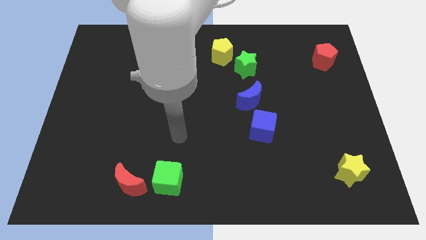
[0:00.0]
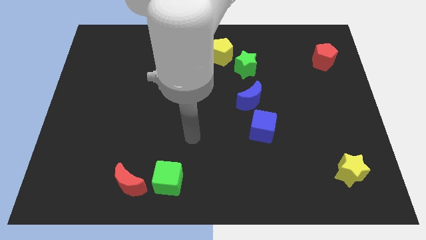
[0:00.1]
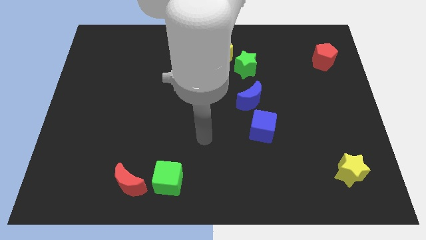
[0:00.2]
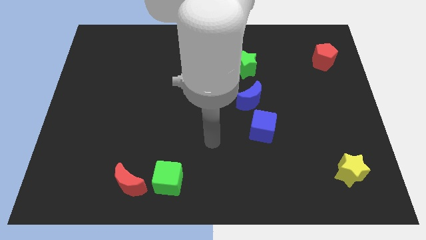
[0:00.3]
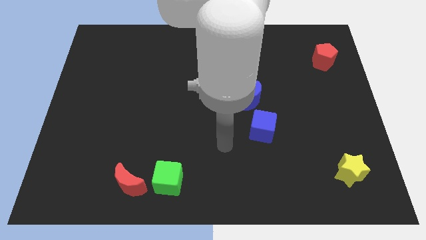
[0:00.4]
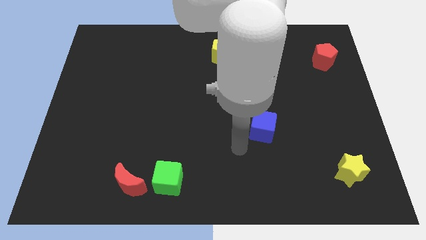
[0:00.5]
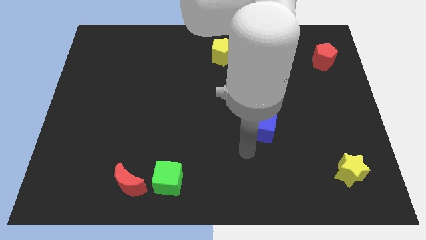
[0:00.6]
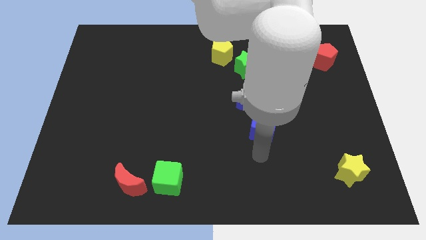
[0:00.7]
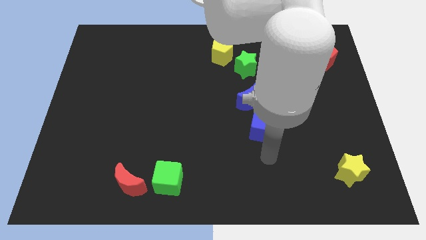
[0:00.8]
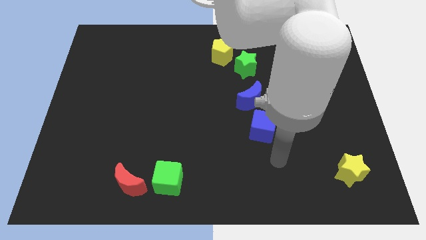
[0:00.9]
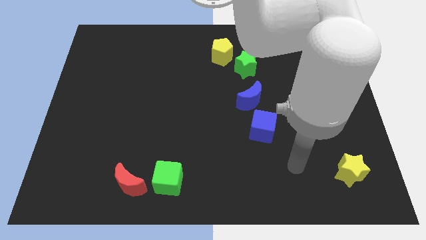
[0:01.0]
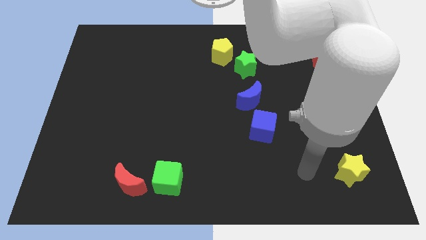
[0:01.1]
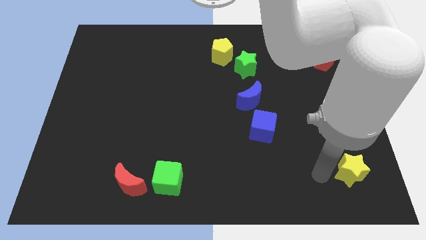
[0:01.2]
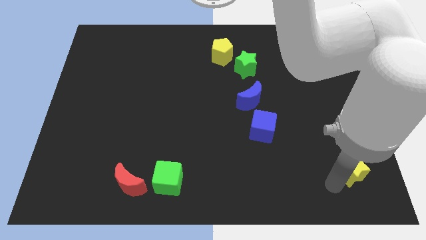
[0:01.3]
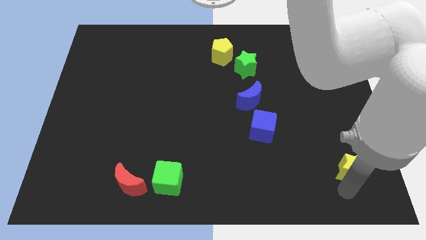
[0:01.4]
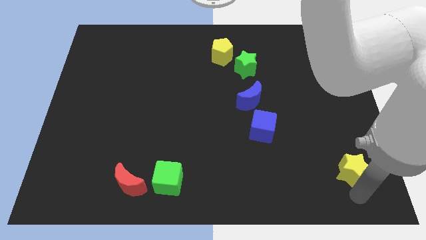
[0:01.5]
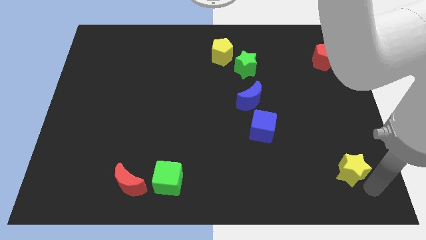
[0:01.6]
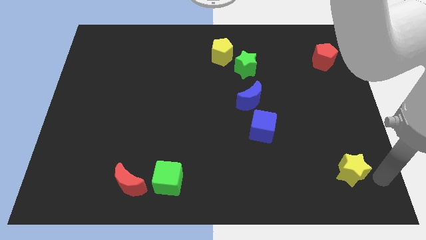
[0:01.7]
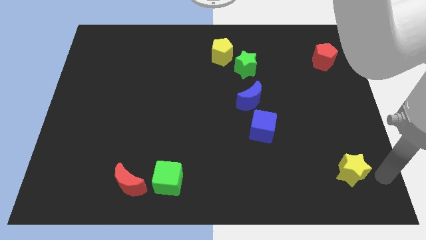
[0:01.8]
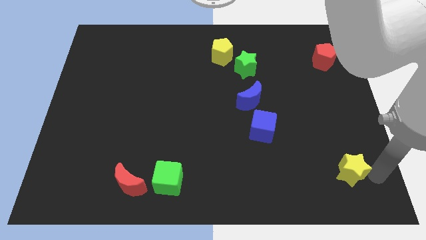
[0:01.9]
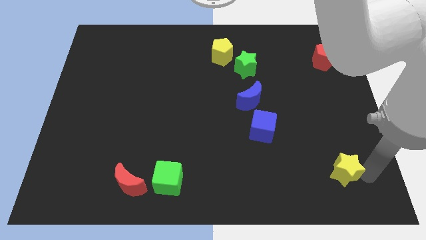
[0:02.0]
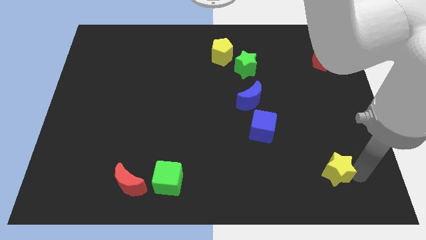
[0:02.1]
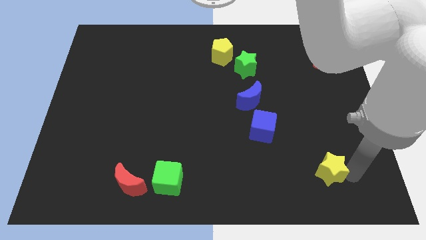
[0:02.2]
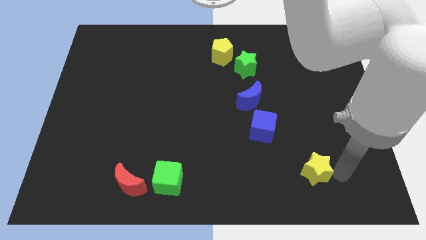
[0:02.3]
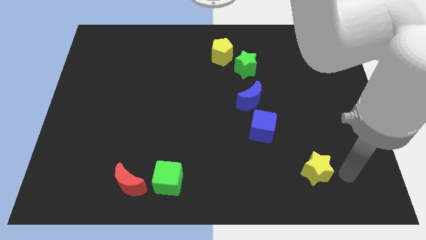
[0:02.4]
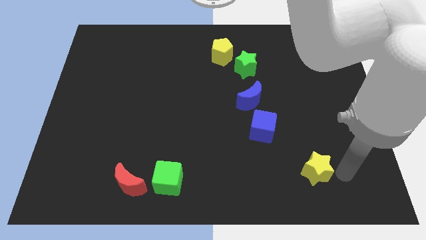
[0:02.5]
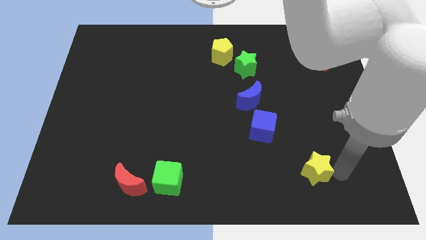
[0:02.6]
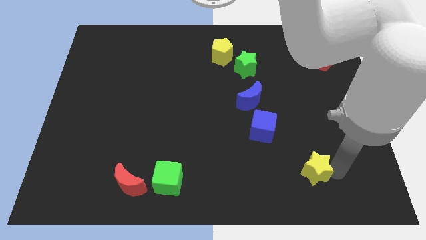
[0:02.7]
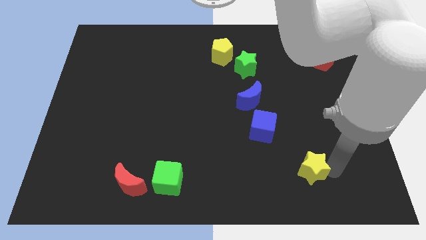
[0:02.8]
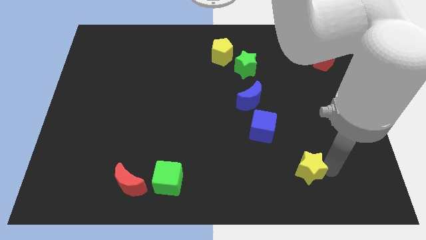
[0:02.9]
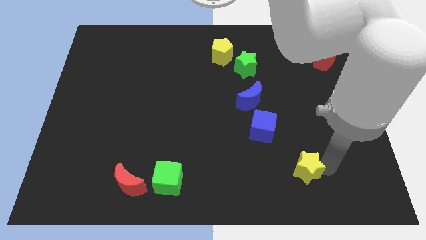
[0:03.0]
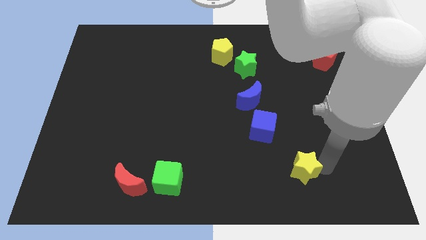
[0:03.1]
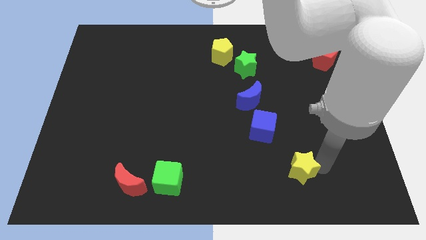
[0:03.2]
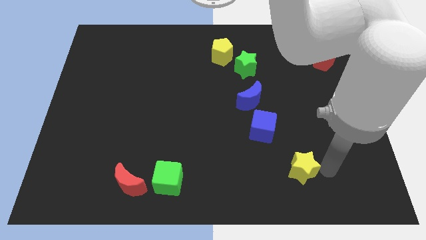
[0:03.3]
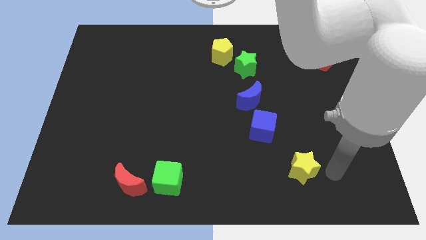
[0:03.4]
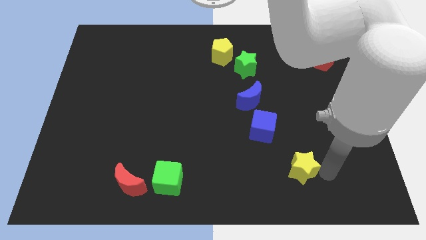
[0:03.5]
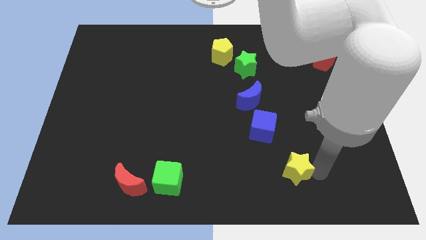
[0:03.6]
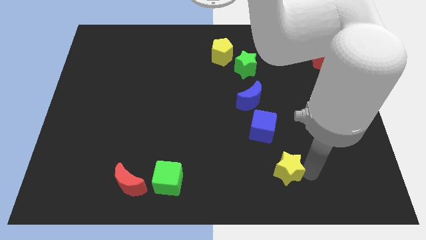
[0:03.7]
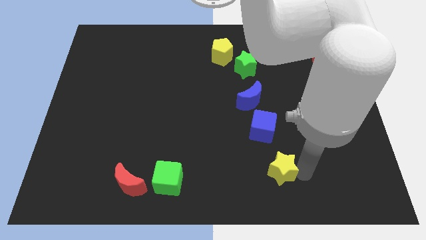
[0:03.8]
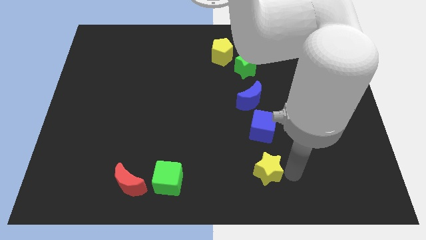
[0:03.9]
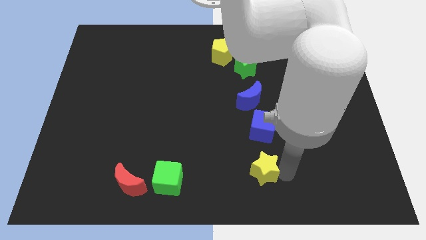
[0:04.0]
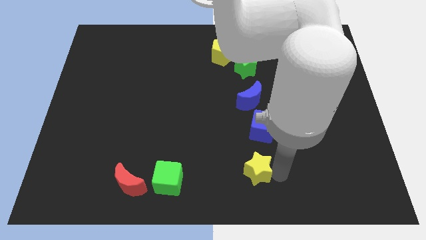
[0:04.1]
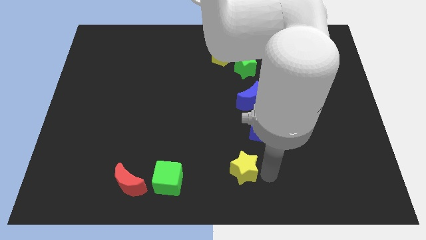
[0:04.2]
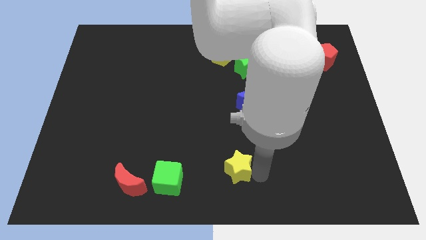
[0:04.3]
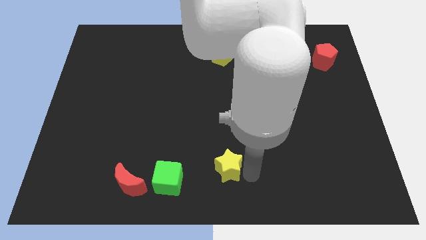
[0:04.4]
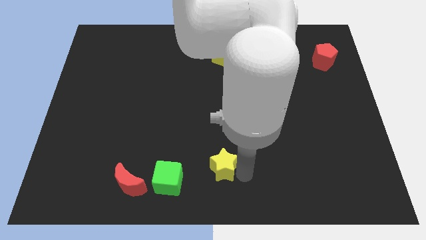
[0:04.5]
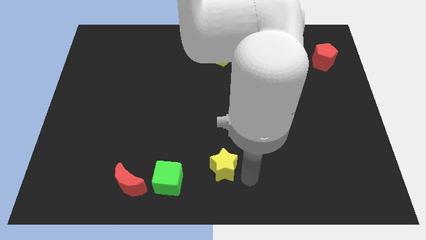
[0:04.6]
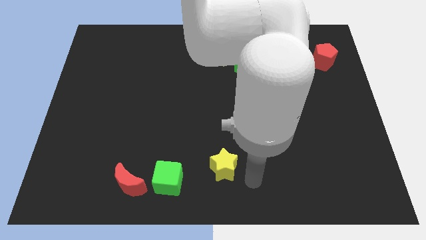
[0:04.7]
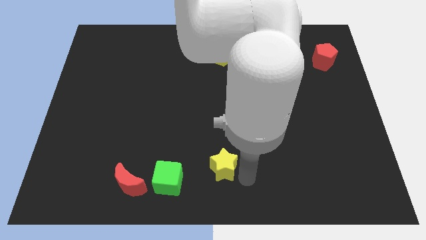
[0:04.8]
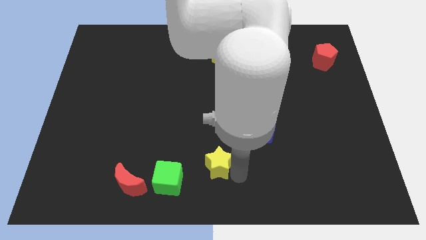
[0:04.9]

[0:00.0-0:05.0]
slide the yellow star to the top right of the green cube

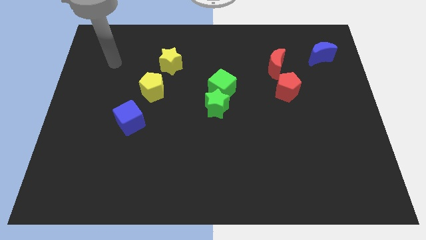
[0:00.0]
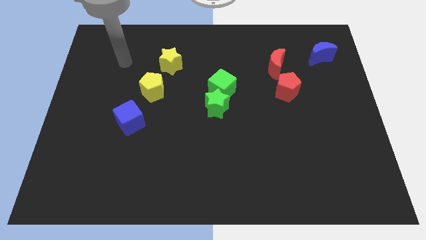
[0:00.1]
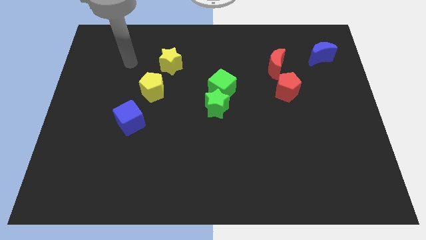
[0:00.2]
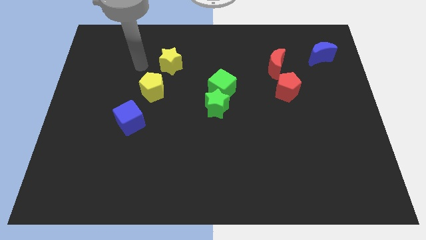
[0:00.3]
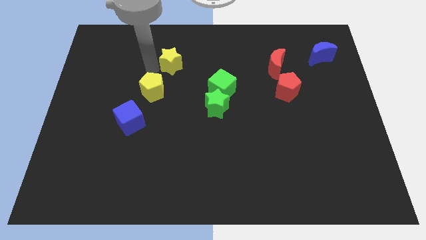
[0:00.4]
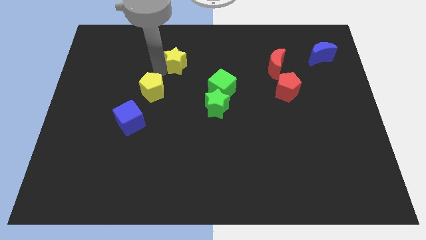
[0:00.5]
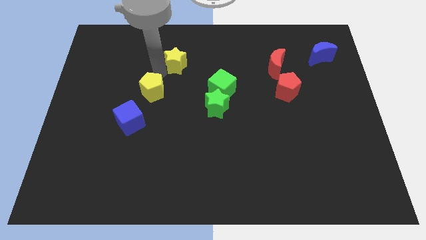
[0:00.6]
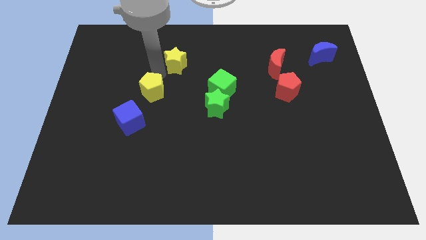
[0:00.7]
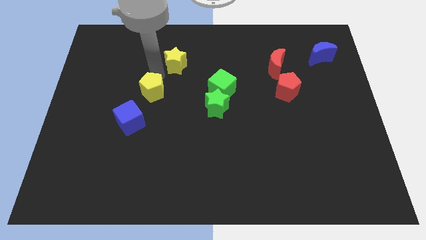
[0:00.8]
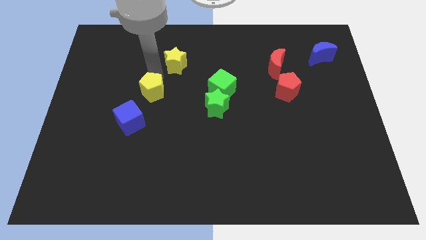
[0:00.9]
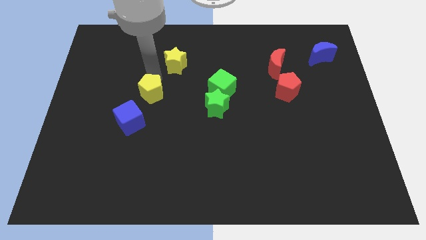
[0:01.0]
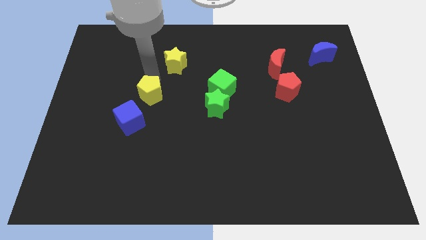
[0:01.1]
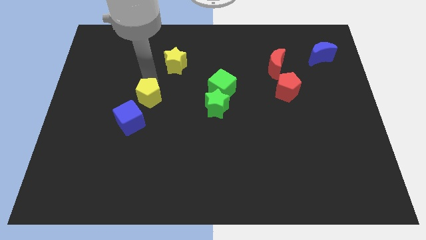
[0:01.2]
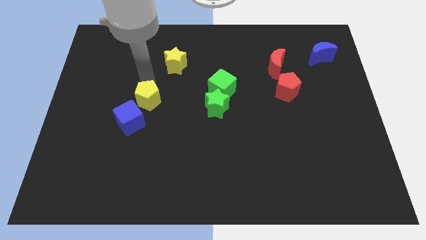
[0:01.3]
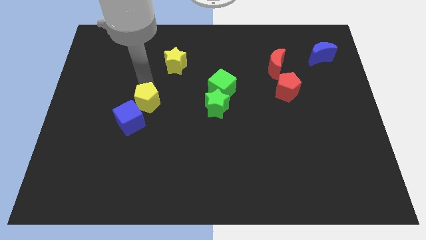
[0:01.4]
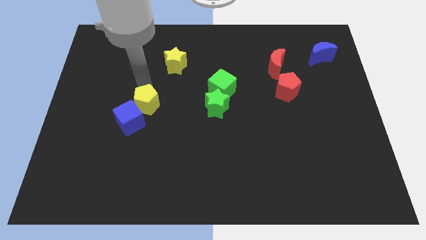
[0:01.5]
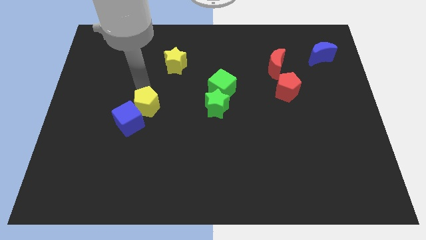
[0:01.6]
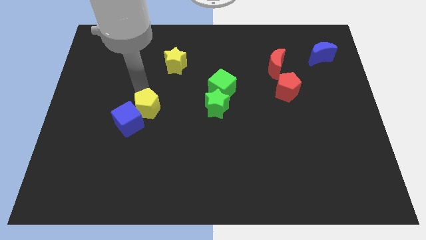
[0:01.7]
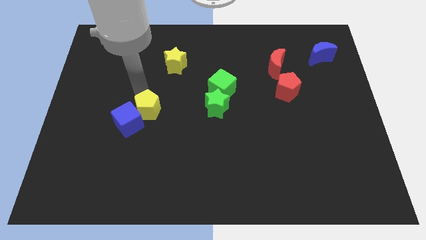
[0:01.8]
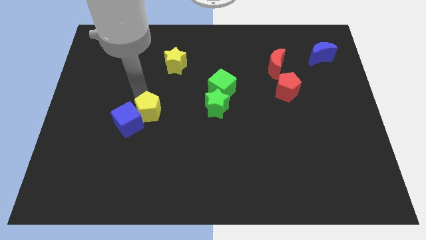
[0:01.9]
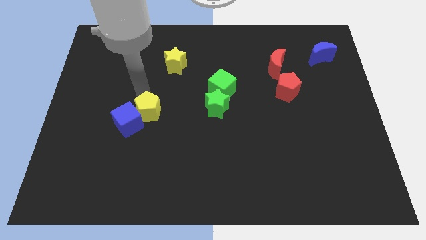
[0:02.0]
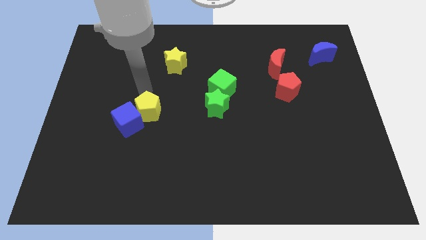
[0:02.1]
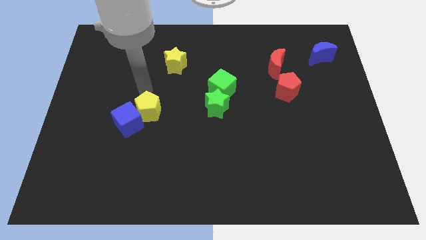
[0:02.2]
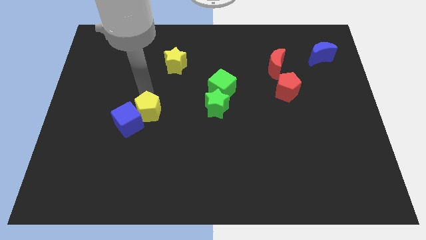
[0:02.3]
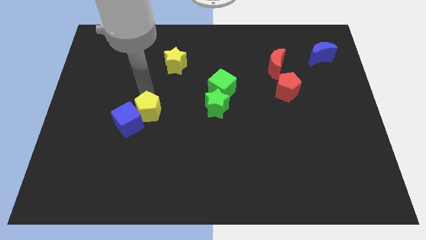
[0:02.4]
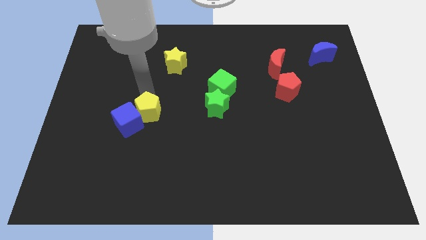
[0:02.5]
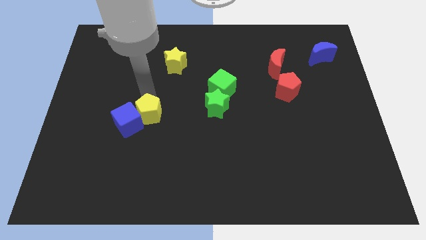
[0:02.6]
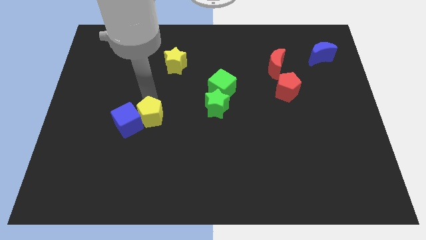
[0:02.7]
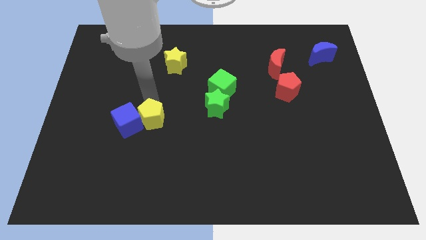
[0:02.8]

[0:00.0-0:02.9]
put the yellow pentagon diagonally down and to the right of the blue cube
